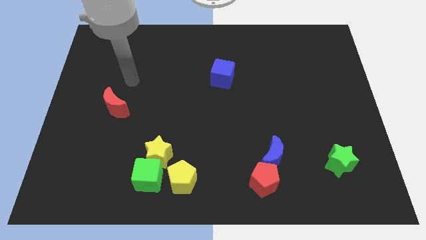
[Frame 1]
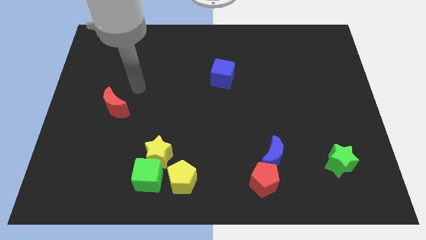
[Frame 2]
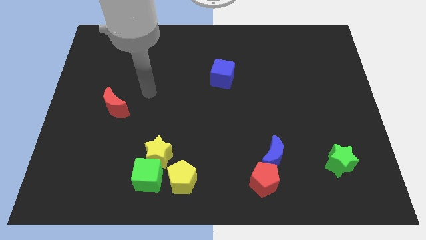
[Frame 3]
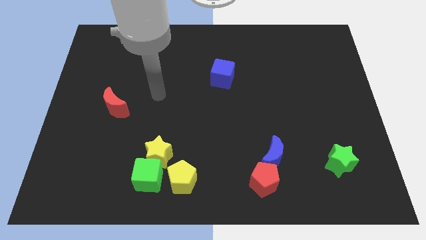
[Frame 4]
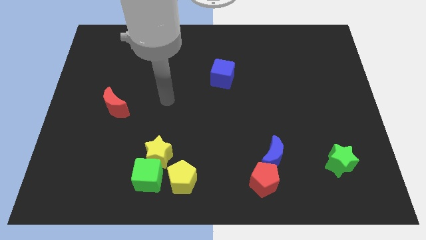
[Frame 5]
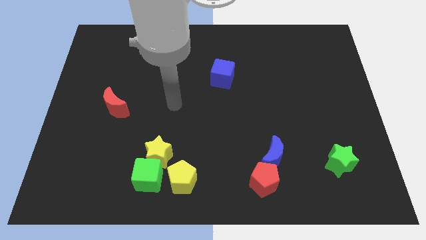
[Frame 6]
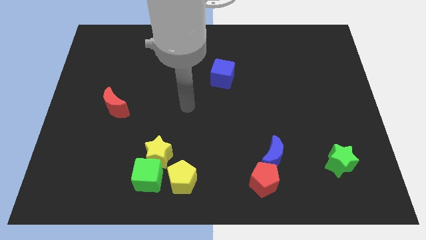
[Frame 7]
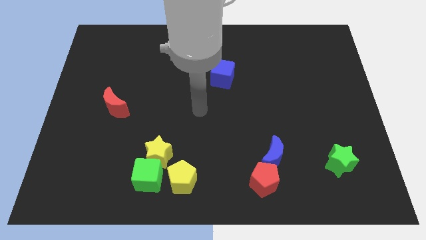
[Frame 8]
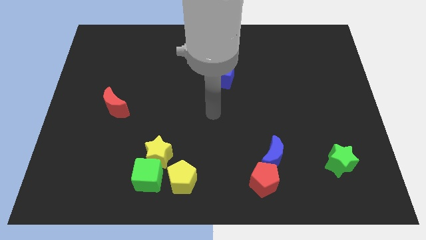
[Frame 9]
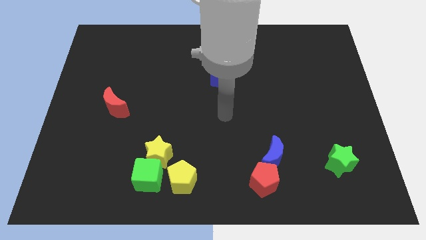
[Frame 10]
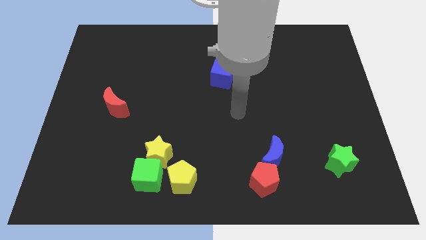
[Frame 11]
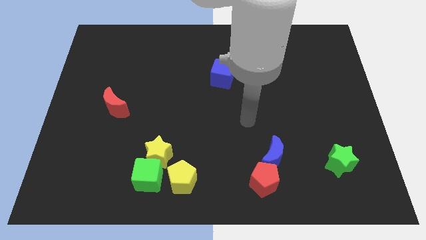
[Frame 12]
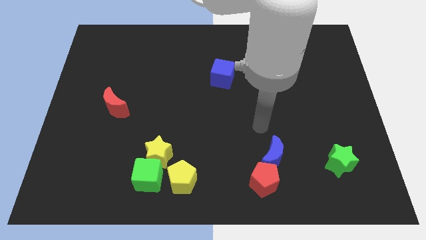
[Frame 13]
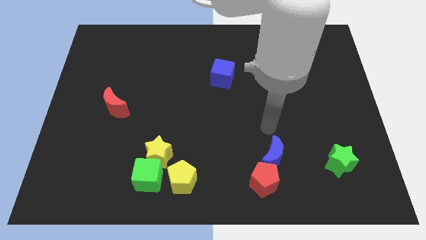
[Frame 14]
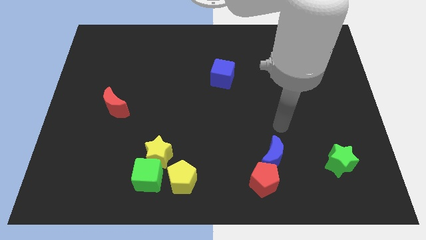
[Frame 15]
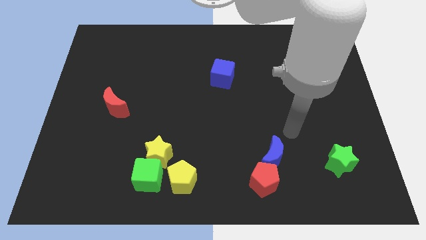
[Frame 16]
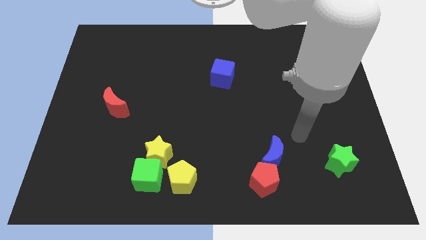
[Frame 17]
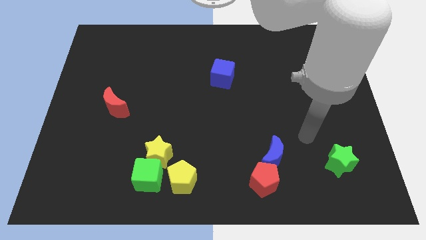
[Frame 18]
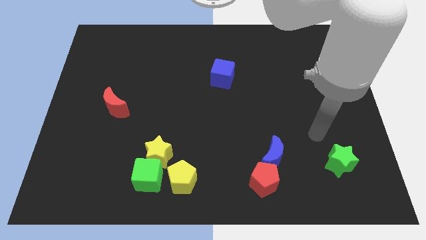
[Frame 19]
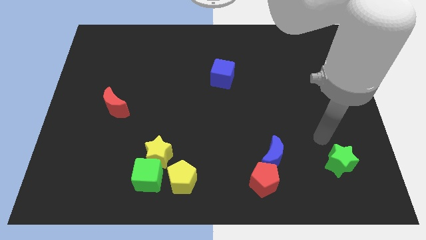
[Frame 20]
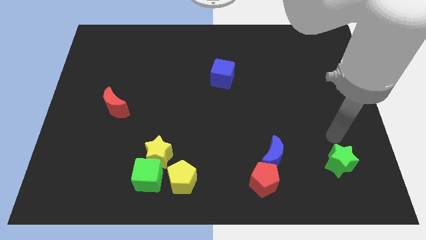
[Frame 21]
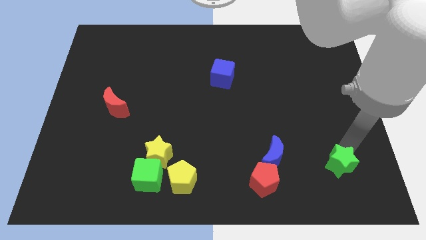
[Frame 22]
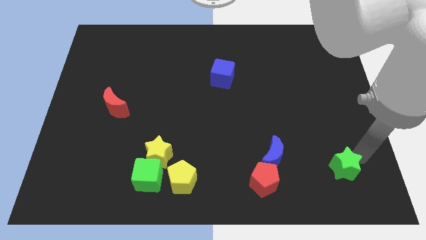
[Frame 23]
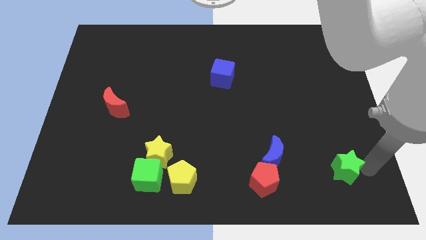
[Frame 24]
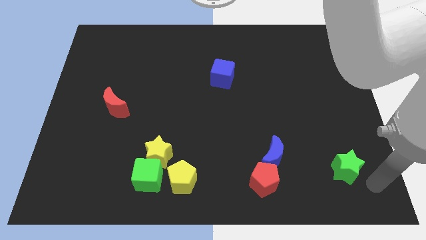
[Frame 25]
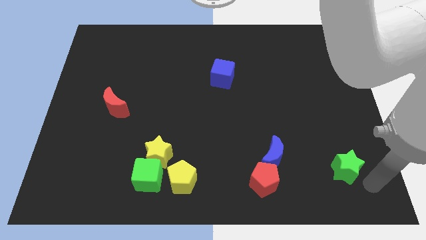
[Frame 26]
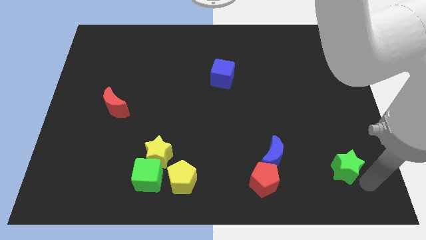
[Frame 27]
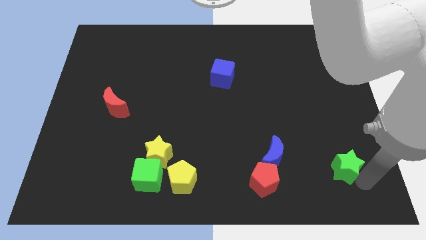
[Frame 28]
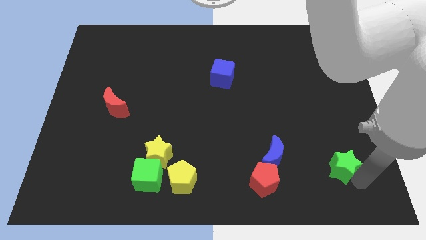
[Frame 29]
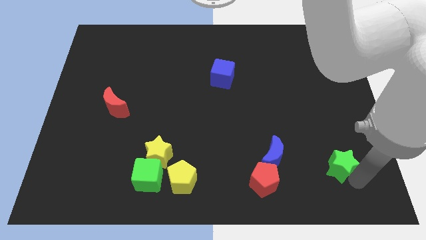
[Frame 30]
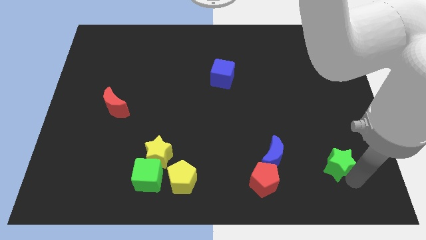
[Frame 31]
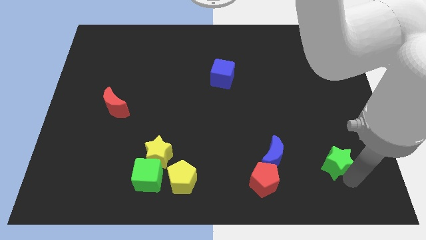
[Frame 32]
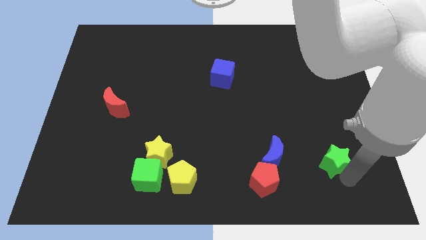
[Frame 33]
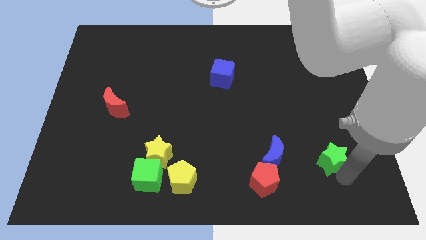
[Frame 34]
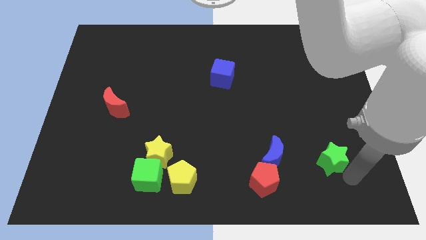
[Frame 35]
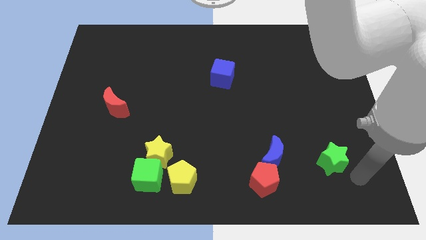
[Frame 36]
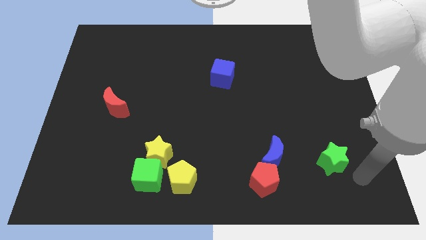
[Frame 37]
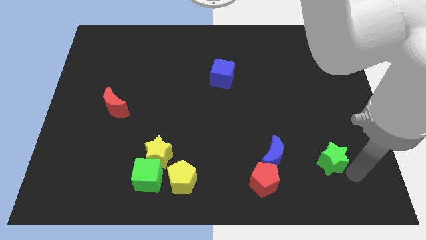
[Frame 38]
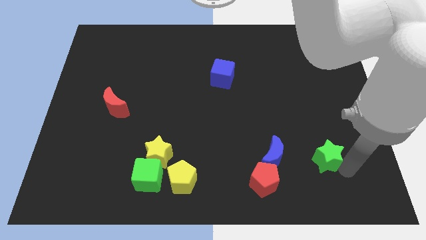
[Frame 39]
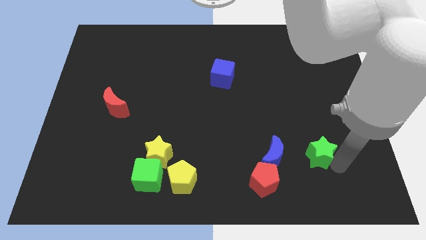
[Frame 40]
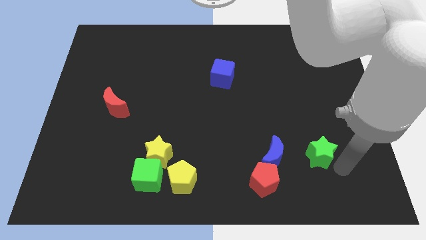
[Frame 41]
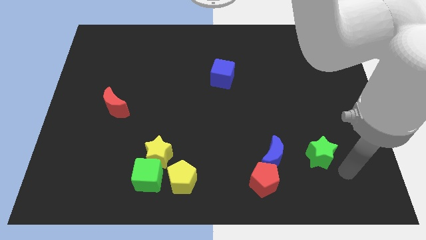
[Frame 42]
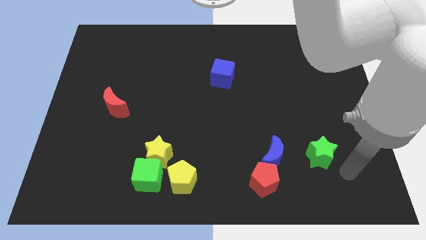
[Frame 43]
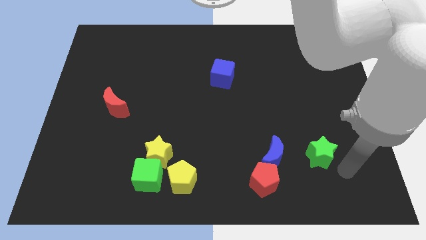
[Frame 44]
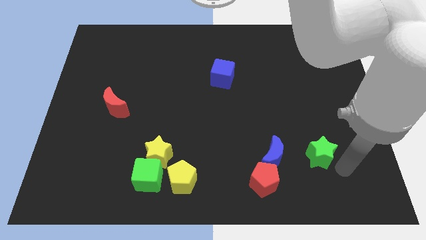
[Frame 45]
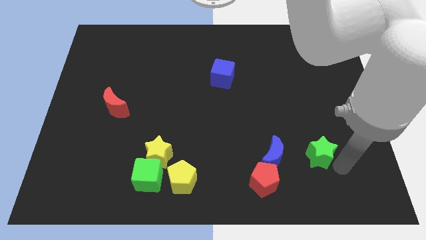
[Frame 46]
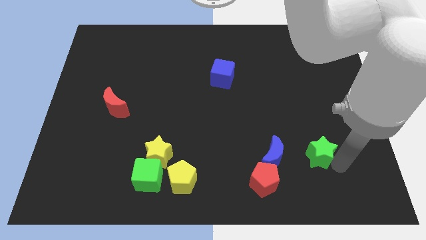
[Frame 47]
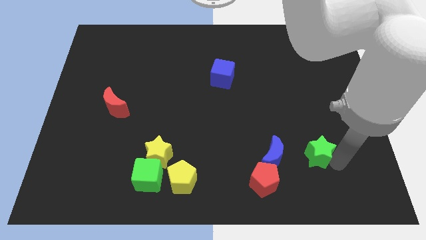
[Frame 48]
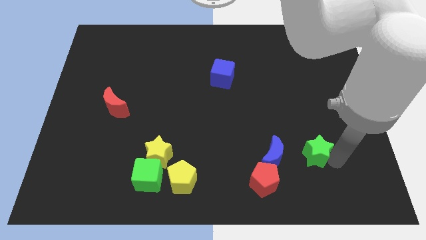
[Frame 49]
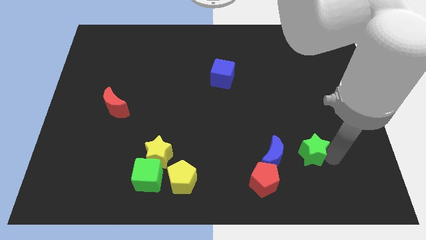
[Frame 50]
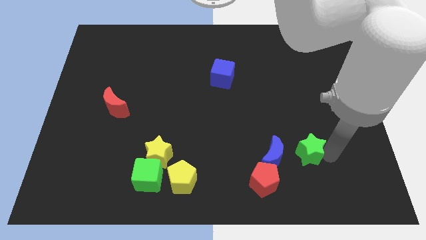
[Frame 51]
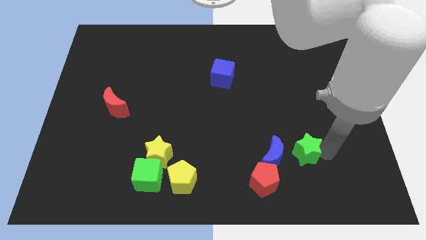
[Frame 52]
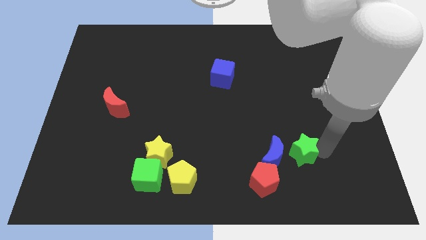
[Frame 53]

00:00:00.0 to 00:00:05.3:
push the green star a little bit left

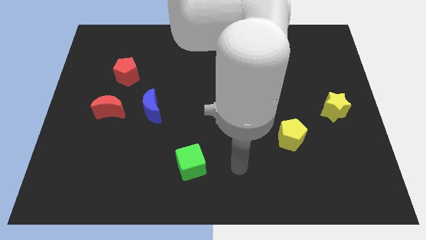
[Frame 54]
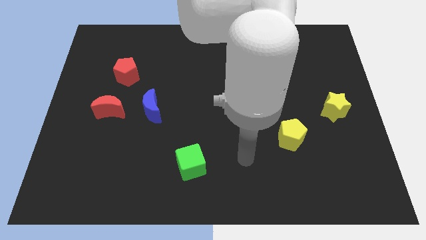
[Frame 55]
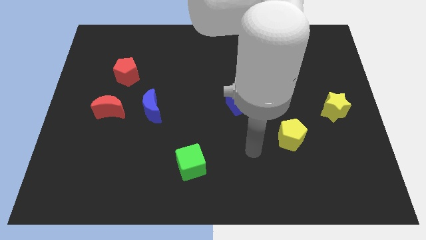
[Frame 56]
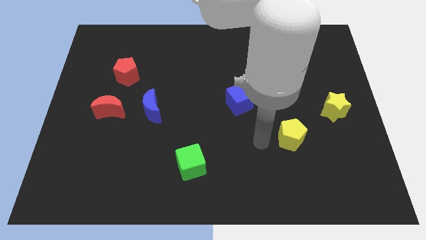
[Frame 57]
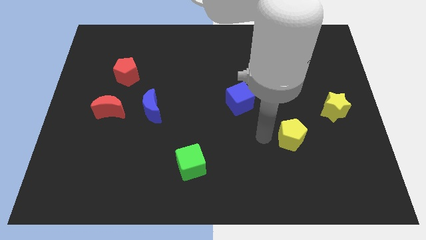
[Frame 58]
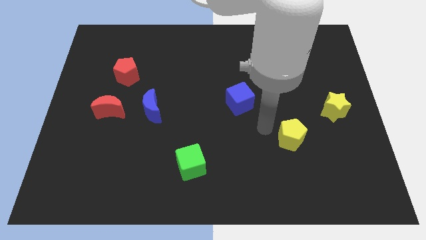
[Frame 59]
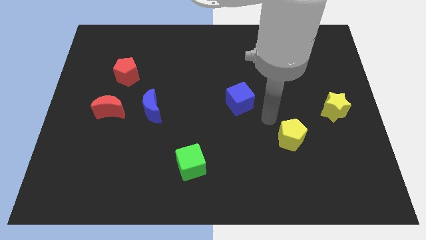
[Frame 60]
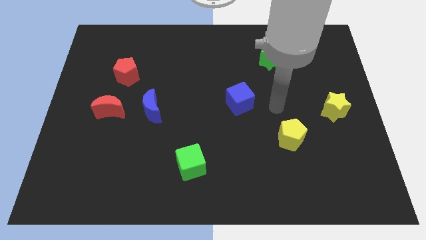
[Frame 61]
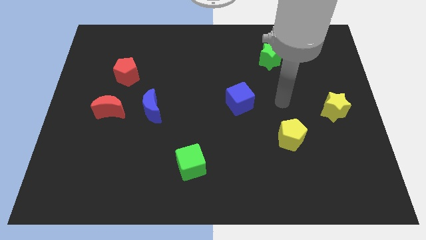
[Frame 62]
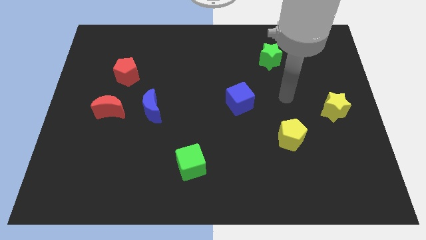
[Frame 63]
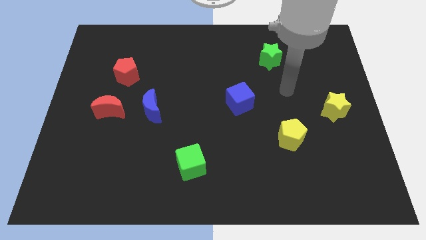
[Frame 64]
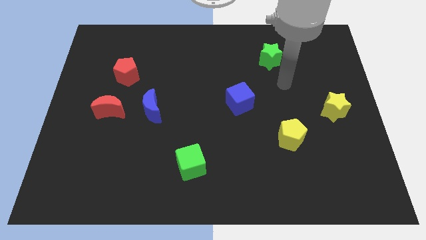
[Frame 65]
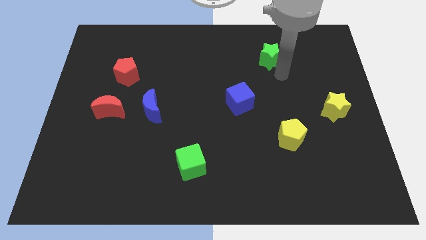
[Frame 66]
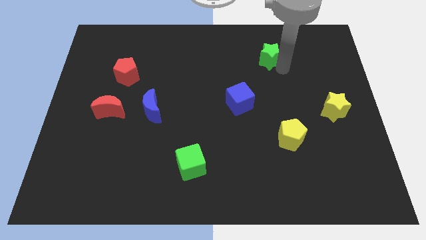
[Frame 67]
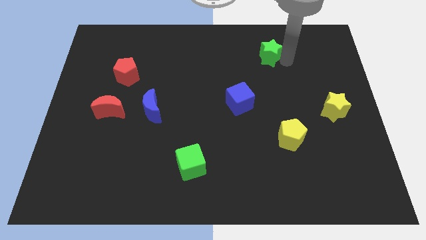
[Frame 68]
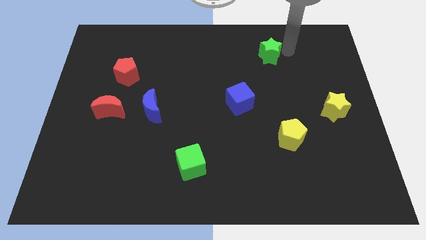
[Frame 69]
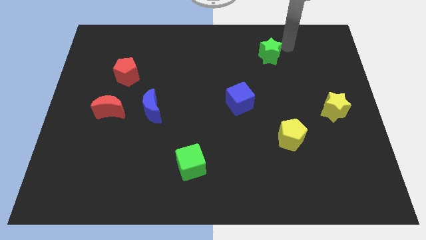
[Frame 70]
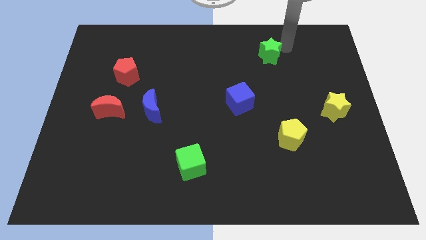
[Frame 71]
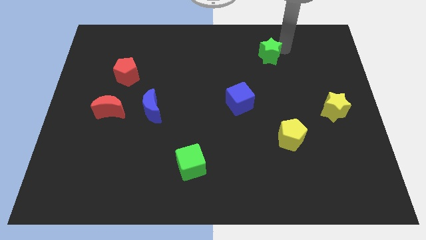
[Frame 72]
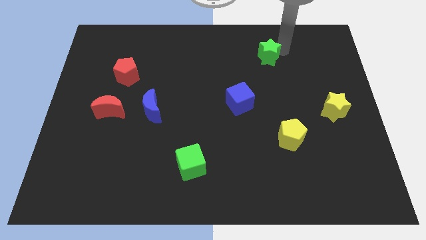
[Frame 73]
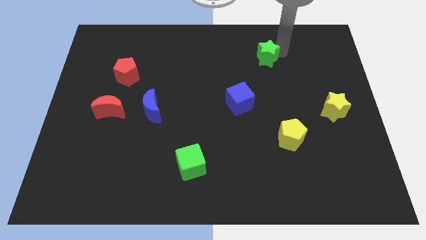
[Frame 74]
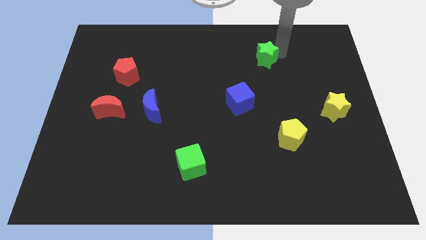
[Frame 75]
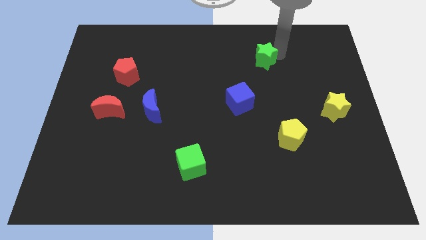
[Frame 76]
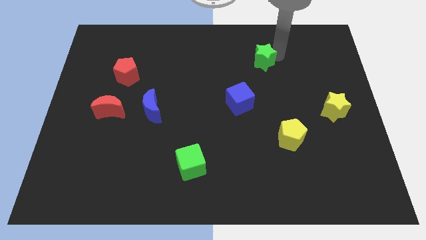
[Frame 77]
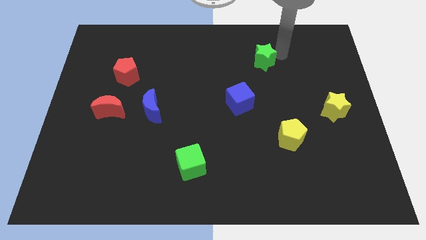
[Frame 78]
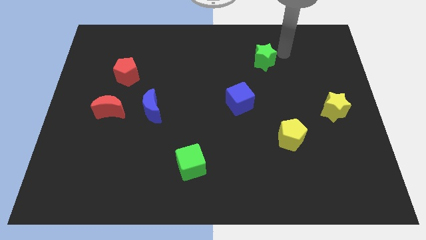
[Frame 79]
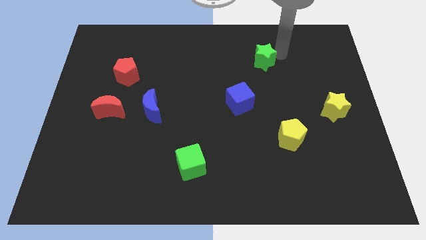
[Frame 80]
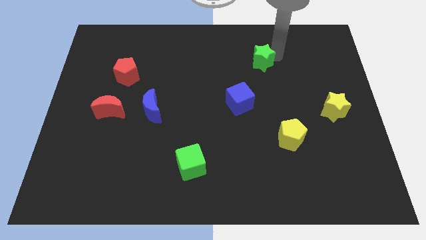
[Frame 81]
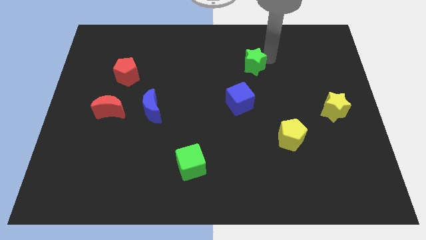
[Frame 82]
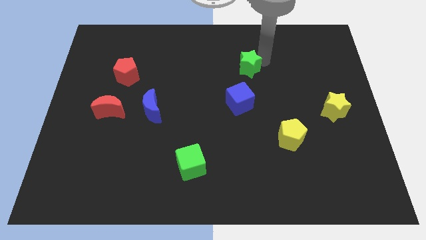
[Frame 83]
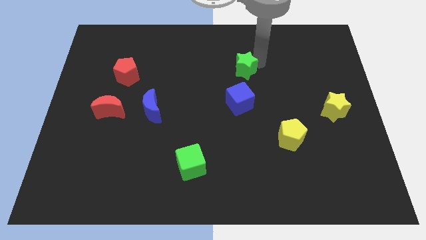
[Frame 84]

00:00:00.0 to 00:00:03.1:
push the green star a bit down and left
